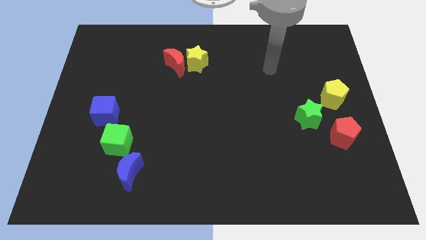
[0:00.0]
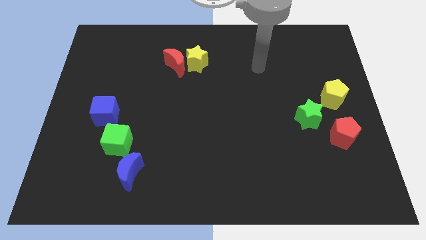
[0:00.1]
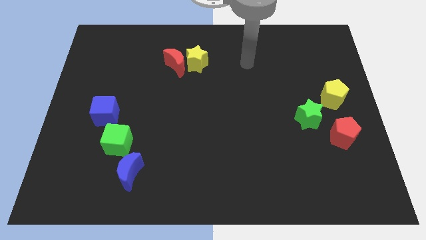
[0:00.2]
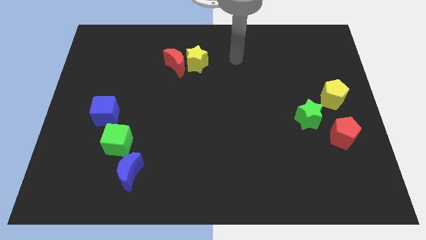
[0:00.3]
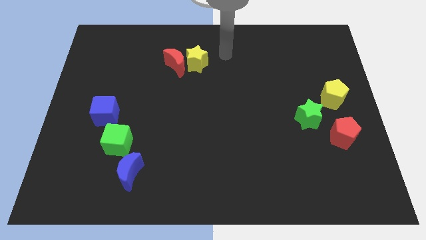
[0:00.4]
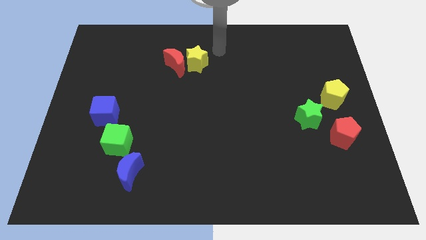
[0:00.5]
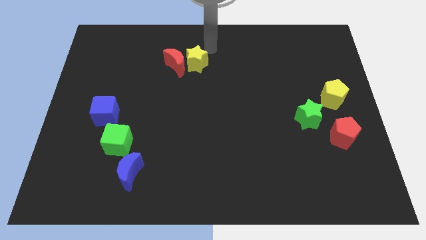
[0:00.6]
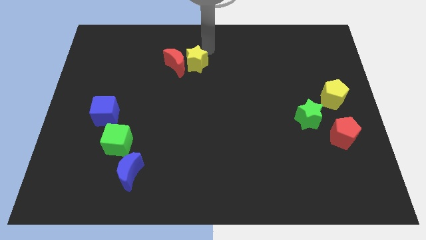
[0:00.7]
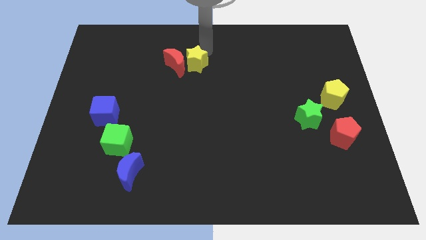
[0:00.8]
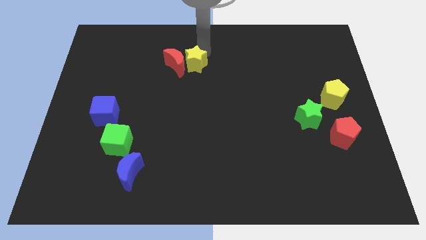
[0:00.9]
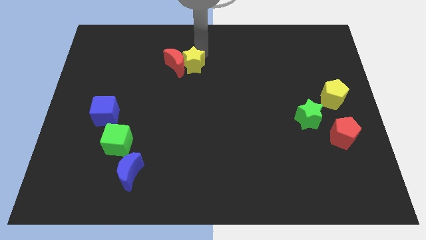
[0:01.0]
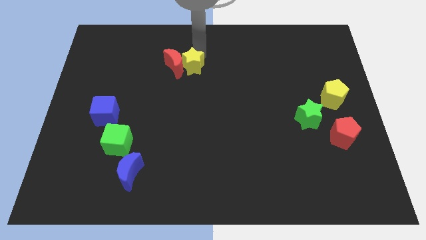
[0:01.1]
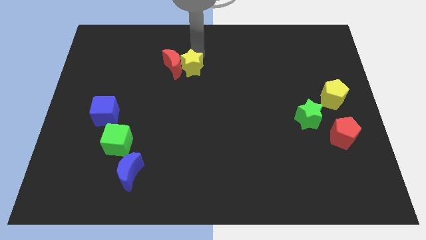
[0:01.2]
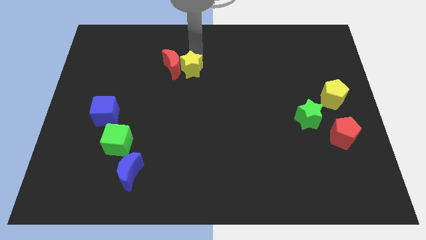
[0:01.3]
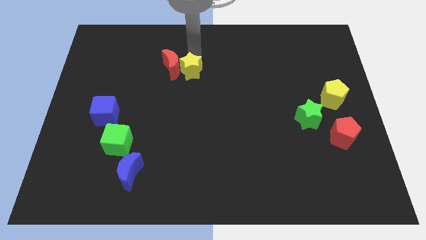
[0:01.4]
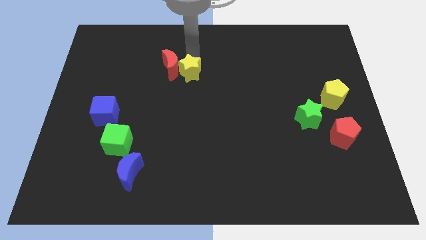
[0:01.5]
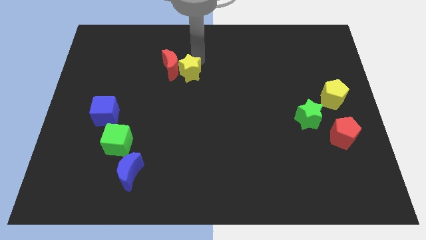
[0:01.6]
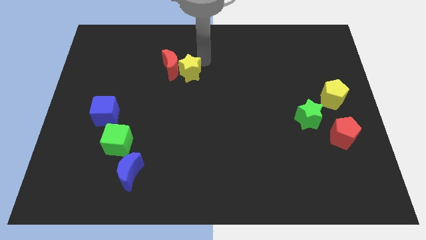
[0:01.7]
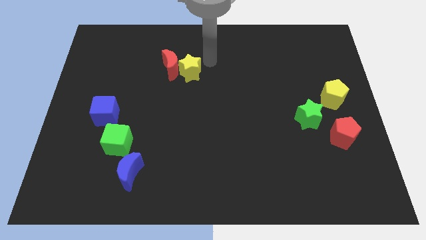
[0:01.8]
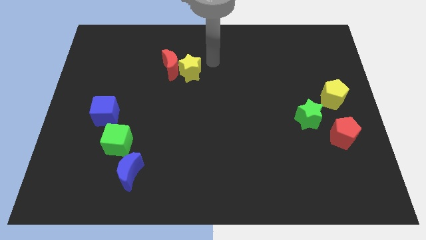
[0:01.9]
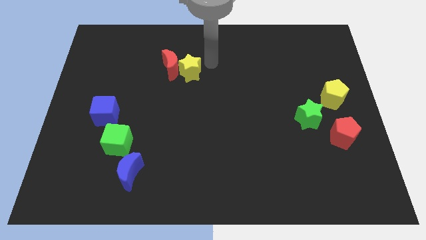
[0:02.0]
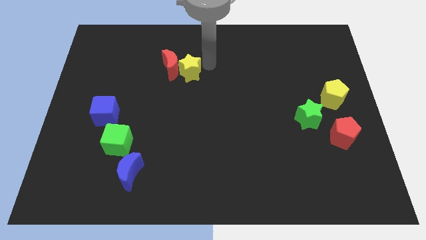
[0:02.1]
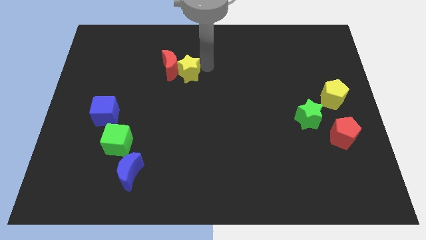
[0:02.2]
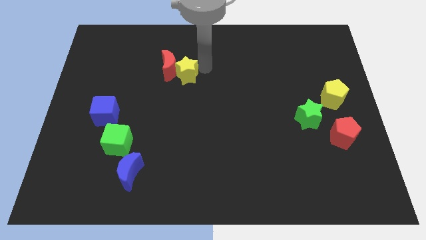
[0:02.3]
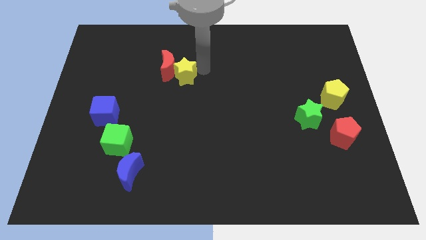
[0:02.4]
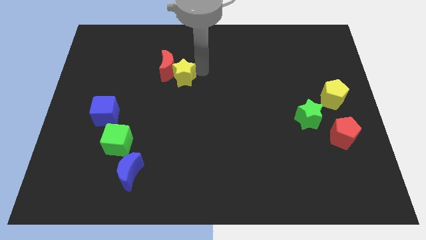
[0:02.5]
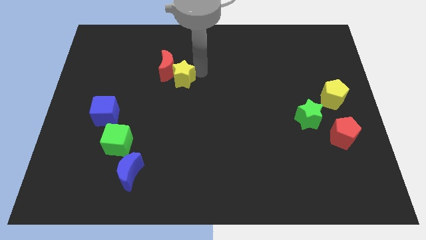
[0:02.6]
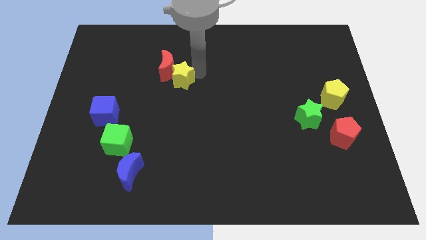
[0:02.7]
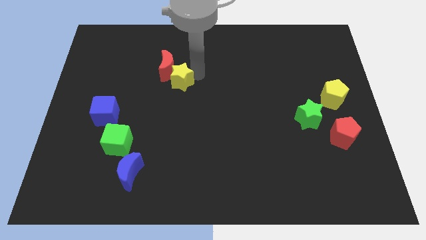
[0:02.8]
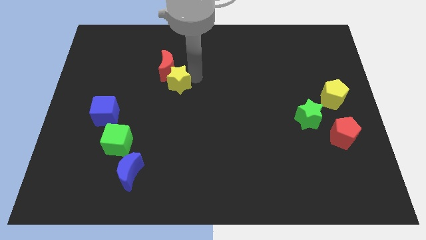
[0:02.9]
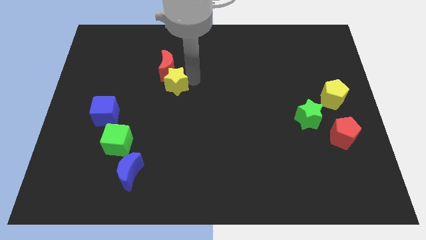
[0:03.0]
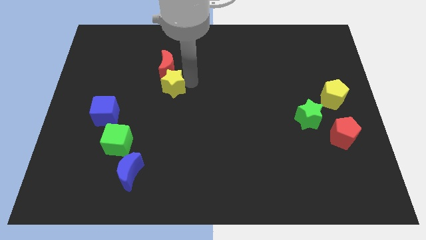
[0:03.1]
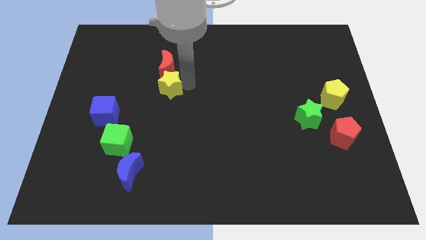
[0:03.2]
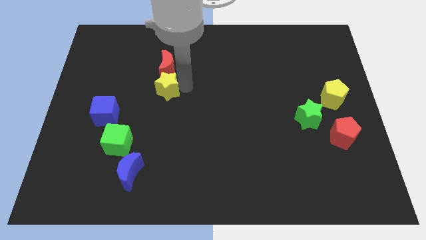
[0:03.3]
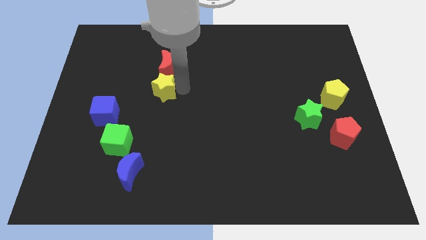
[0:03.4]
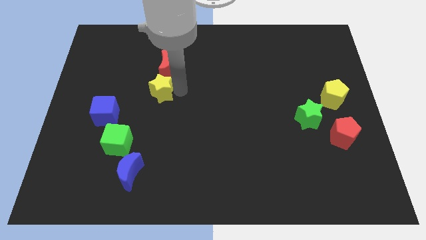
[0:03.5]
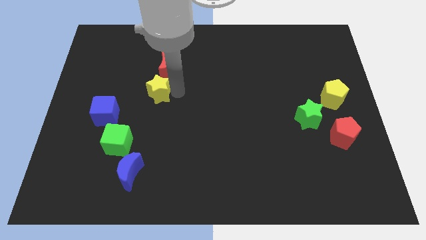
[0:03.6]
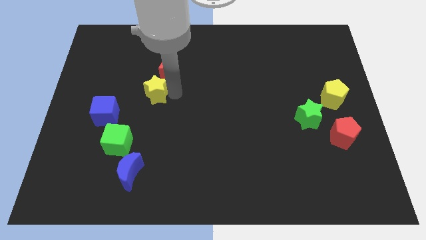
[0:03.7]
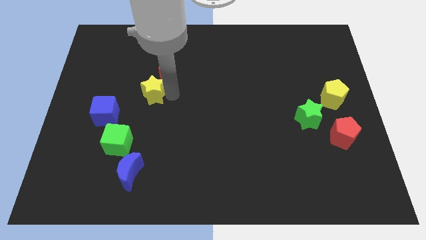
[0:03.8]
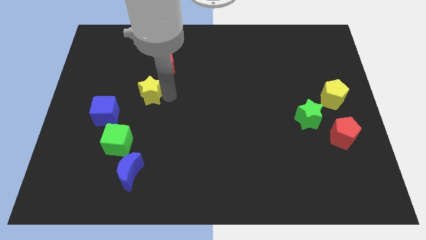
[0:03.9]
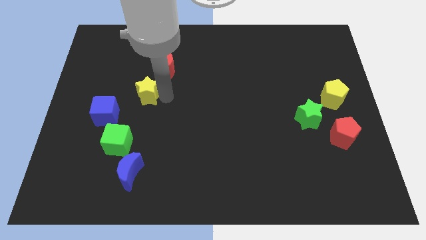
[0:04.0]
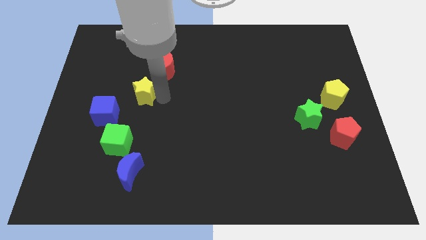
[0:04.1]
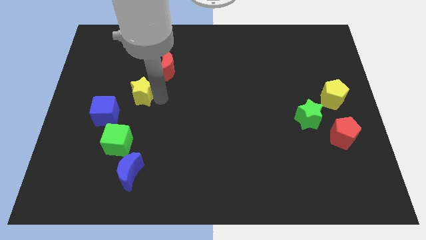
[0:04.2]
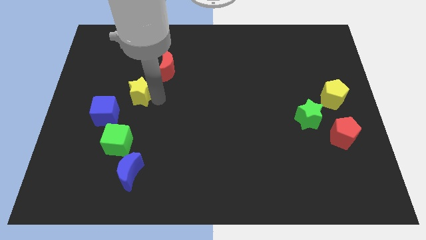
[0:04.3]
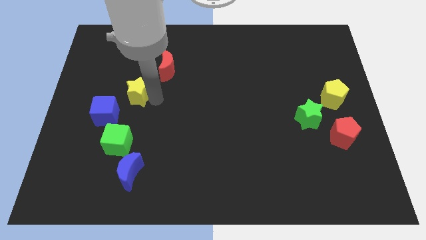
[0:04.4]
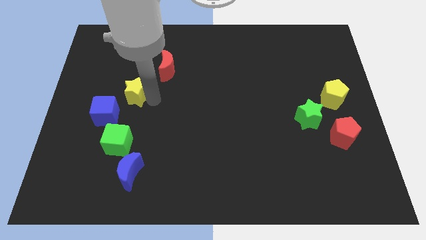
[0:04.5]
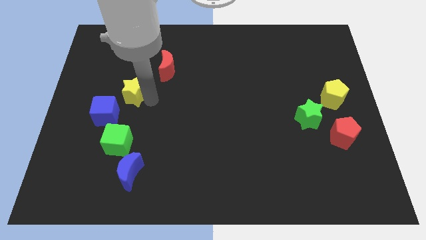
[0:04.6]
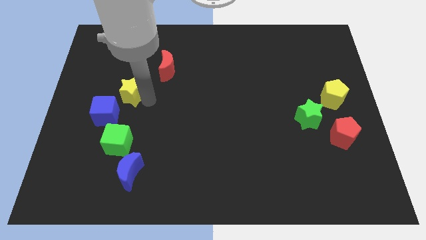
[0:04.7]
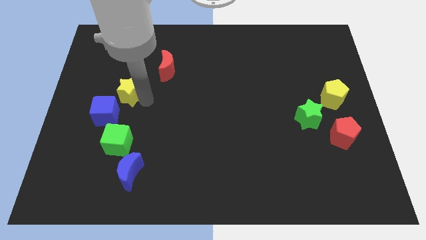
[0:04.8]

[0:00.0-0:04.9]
slide the yellow star above the blue cube

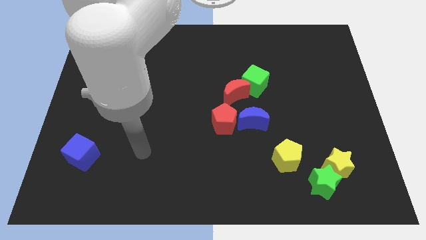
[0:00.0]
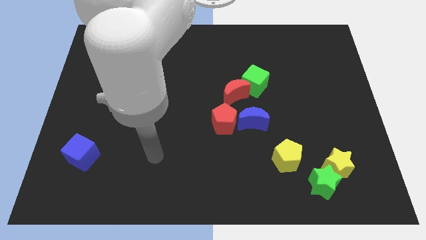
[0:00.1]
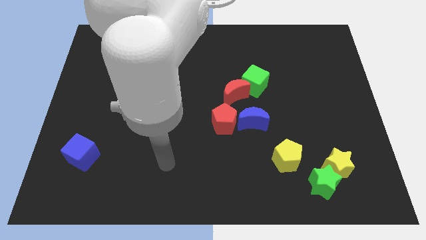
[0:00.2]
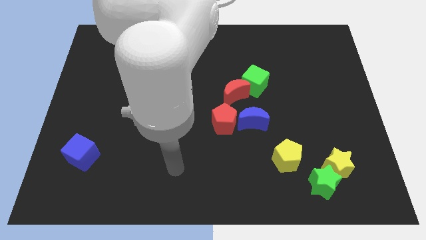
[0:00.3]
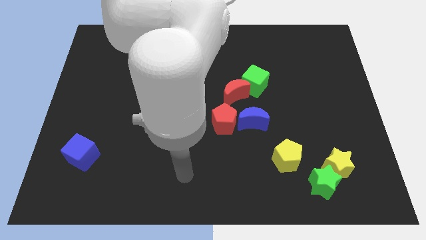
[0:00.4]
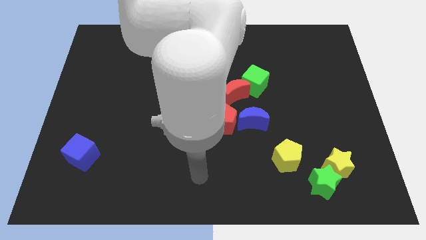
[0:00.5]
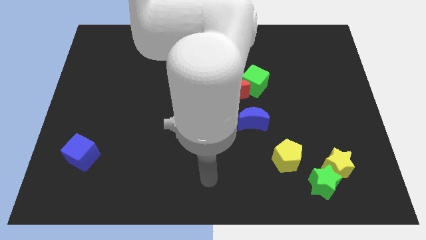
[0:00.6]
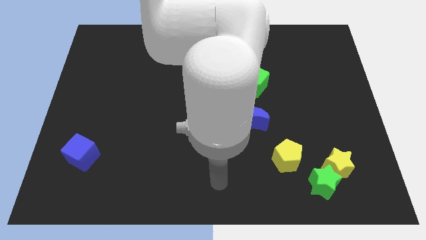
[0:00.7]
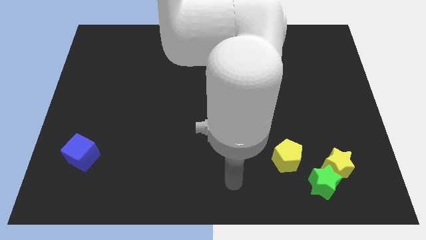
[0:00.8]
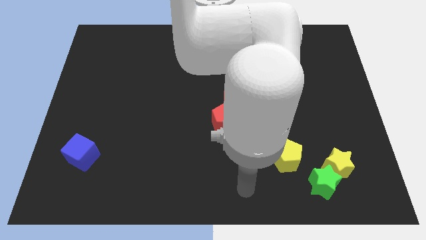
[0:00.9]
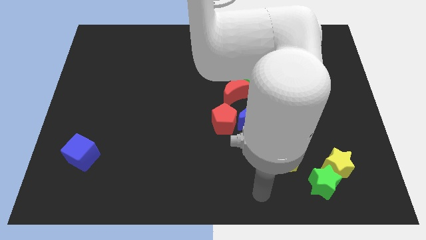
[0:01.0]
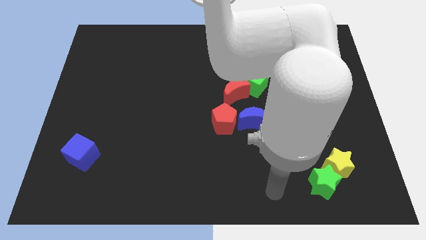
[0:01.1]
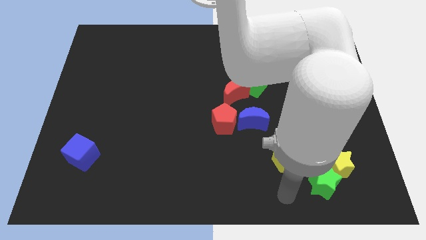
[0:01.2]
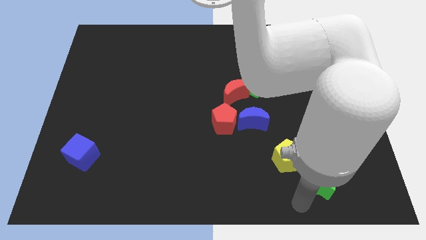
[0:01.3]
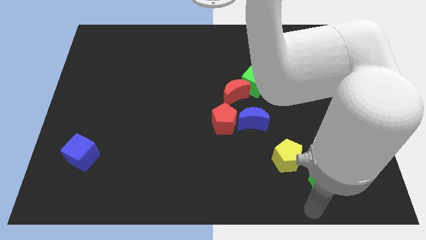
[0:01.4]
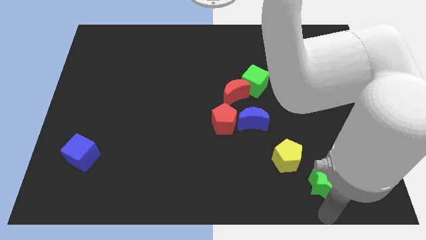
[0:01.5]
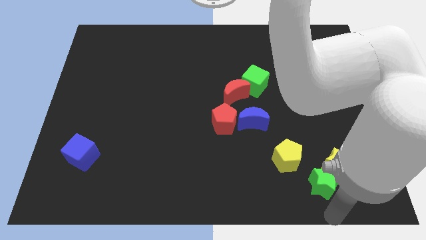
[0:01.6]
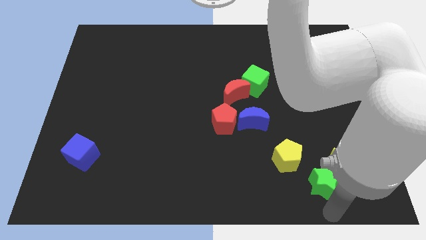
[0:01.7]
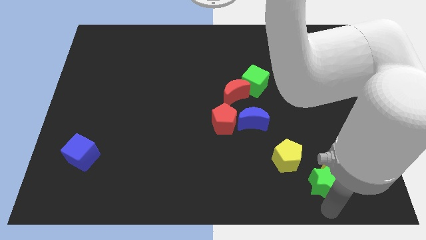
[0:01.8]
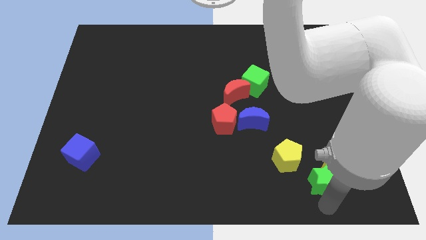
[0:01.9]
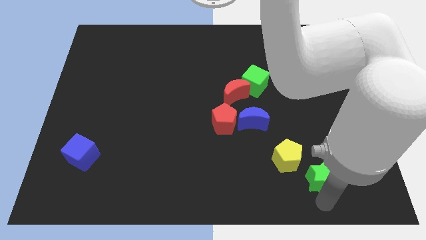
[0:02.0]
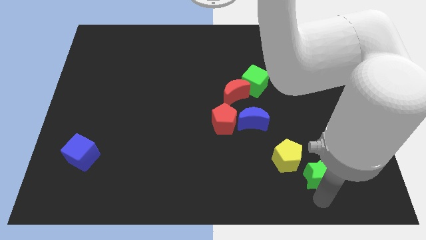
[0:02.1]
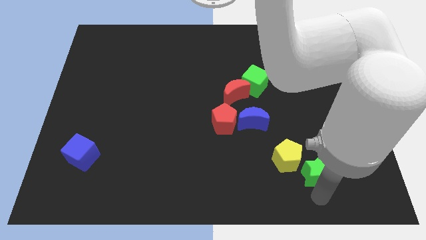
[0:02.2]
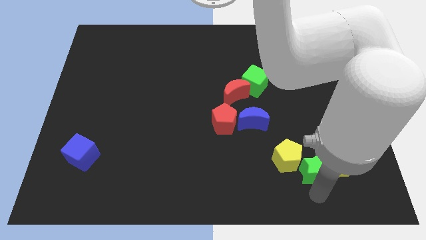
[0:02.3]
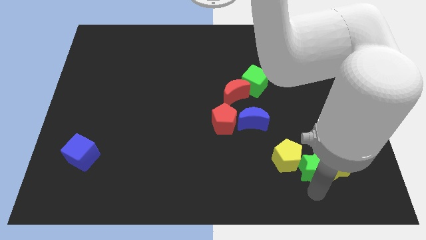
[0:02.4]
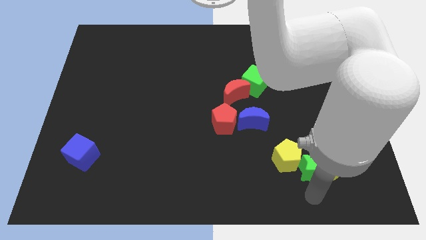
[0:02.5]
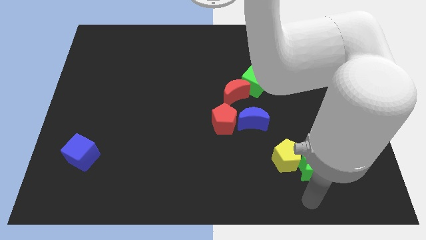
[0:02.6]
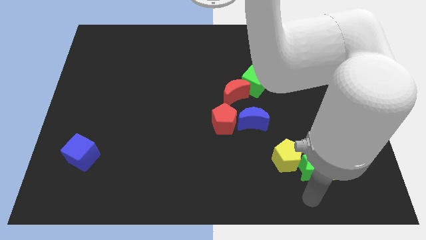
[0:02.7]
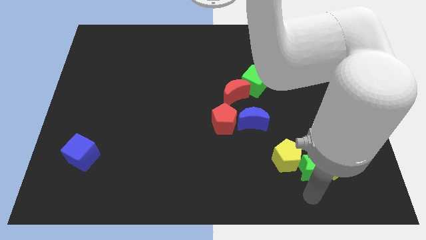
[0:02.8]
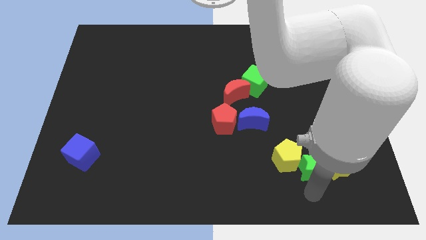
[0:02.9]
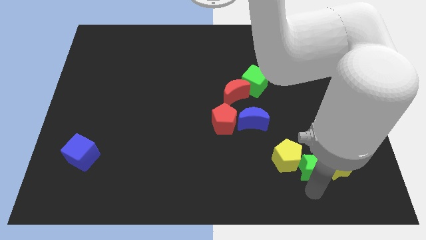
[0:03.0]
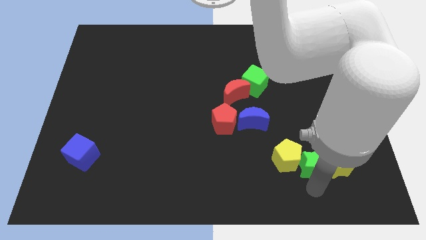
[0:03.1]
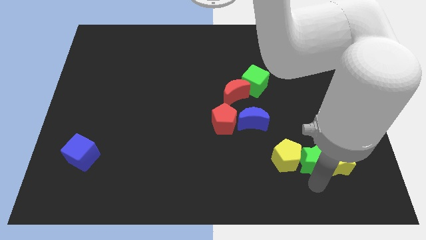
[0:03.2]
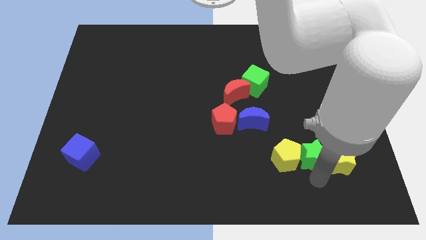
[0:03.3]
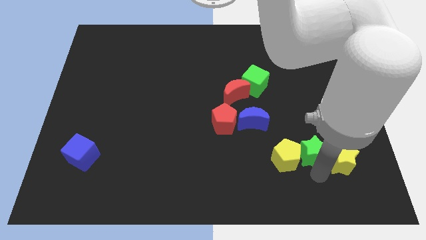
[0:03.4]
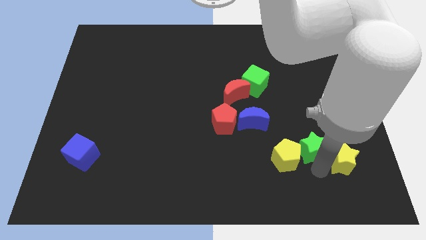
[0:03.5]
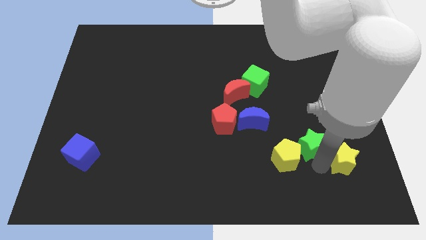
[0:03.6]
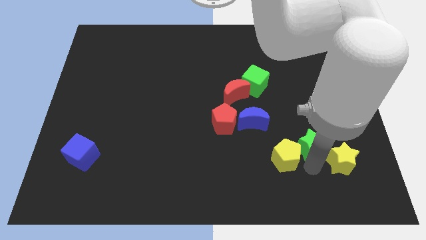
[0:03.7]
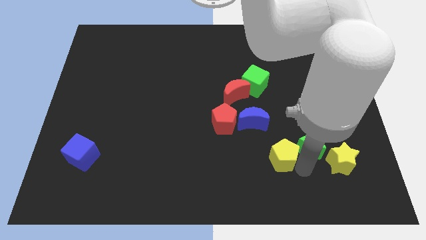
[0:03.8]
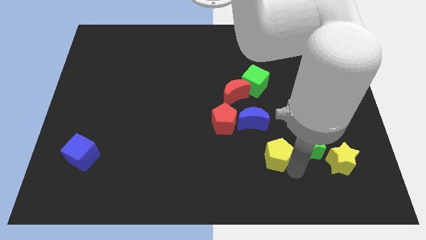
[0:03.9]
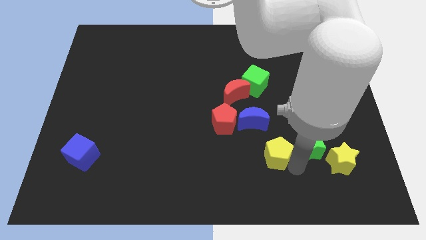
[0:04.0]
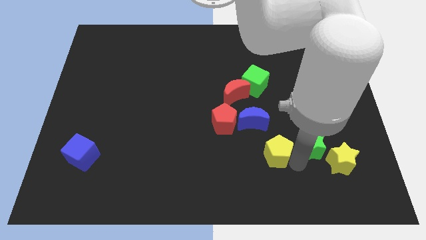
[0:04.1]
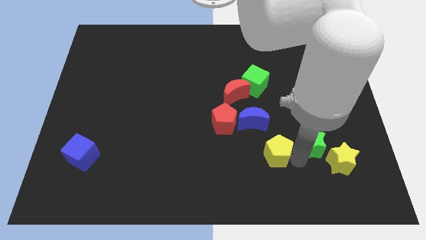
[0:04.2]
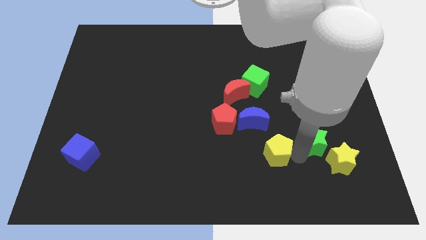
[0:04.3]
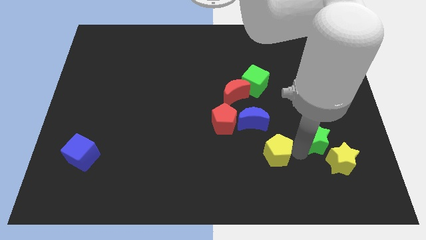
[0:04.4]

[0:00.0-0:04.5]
put the green star above the yellow star
